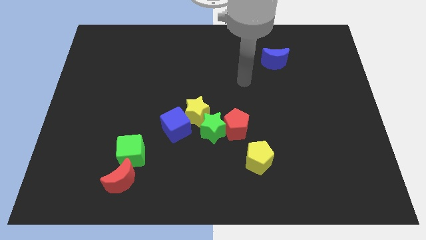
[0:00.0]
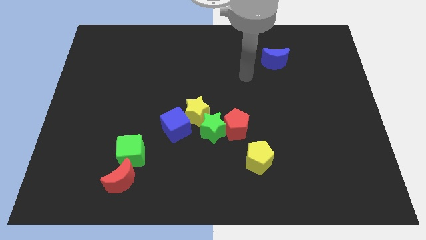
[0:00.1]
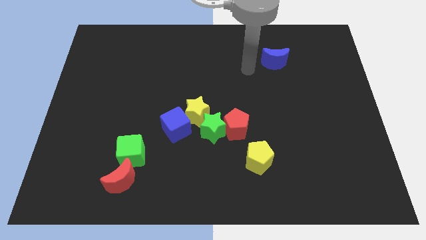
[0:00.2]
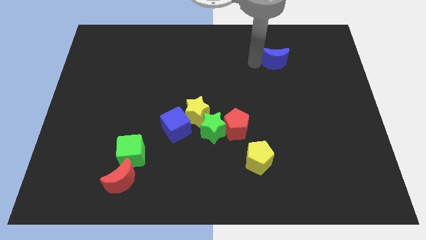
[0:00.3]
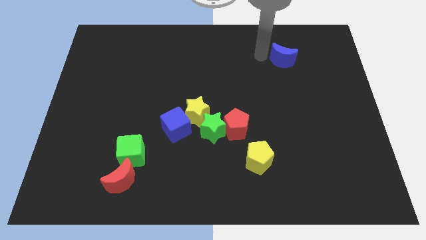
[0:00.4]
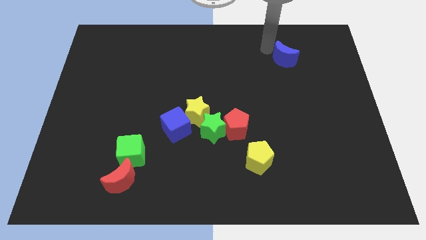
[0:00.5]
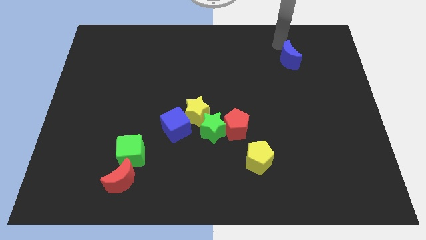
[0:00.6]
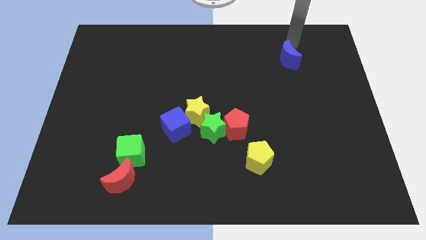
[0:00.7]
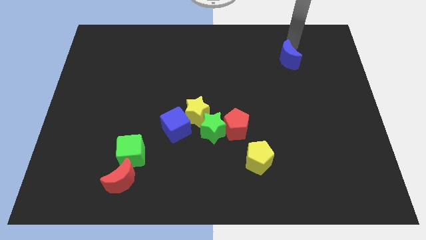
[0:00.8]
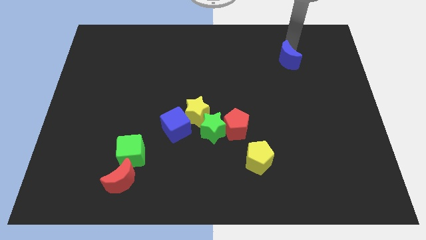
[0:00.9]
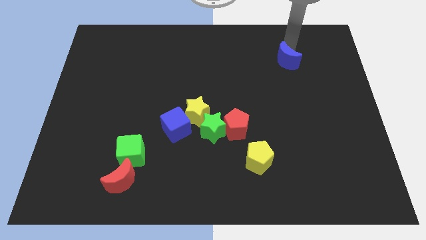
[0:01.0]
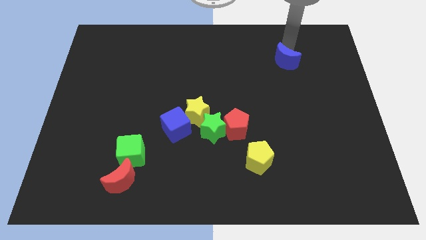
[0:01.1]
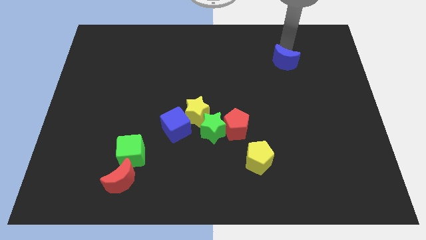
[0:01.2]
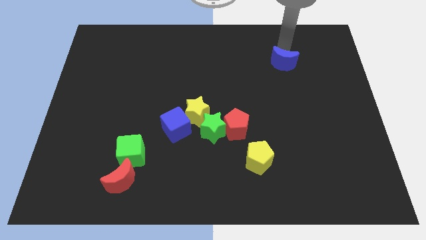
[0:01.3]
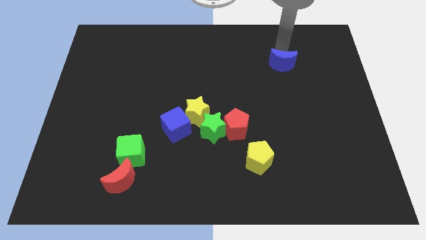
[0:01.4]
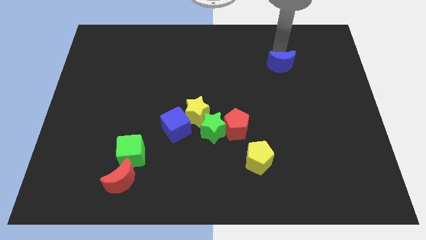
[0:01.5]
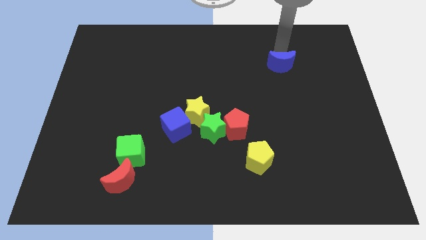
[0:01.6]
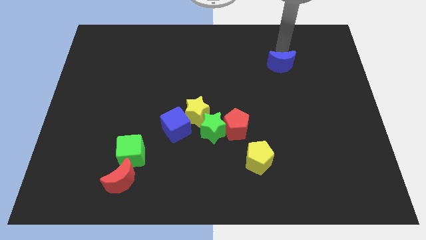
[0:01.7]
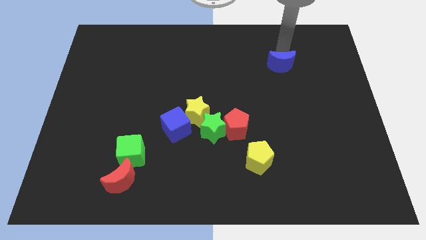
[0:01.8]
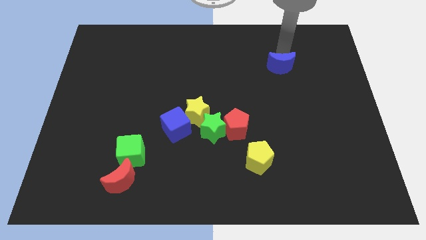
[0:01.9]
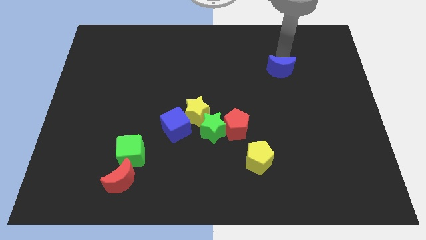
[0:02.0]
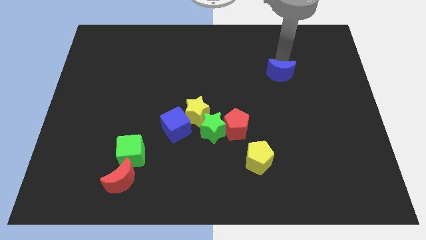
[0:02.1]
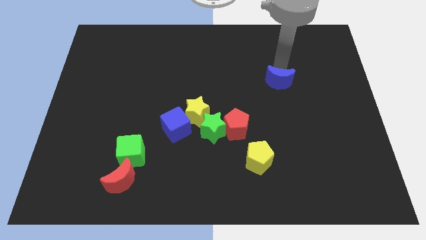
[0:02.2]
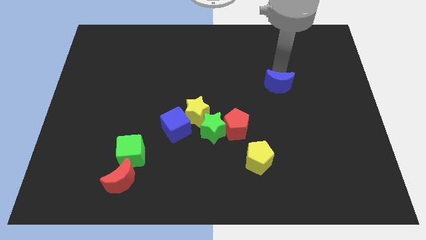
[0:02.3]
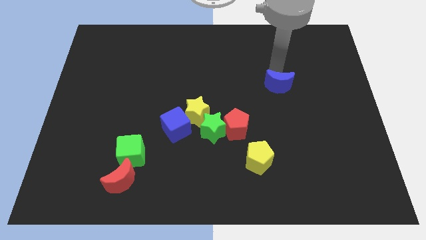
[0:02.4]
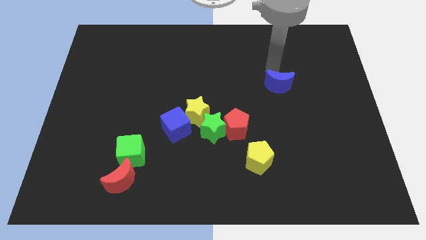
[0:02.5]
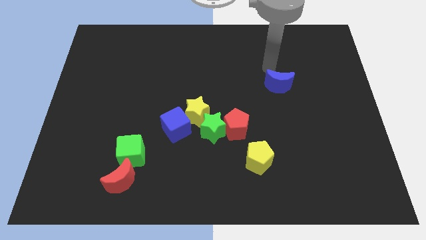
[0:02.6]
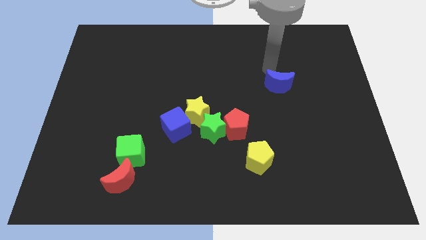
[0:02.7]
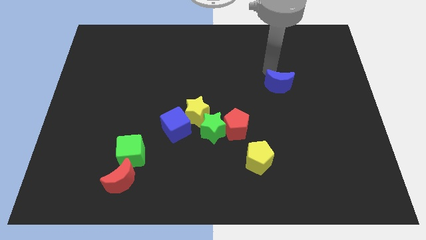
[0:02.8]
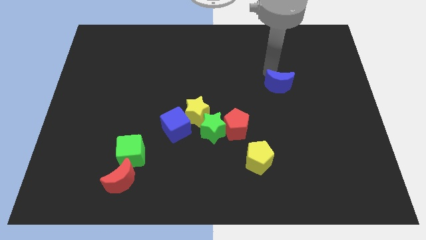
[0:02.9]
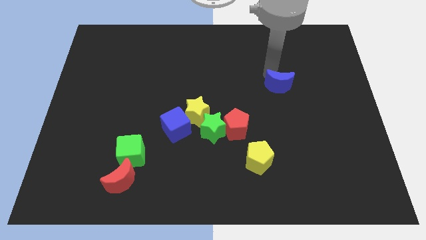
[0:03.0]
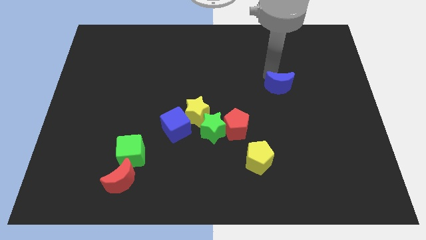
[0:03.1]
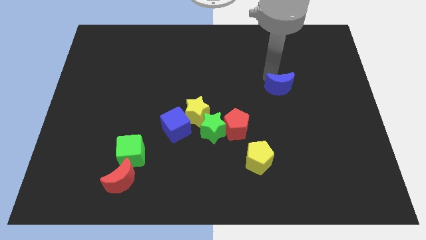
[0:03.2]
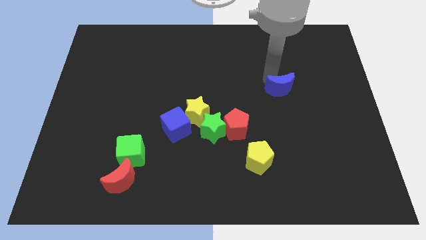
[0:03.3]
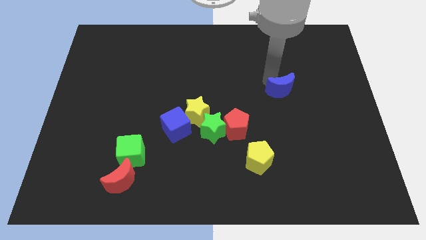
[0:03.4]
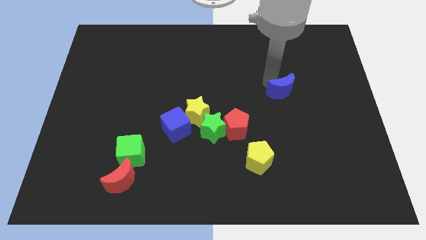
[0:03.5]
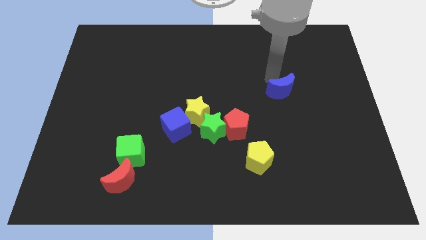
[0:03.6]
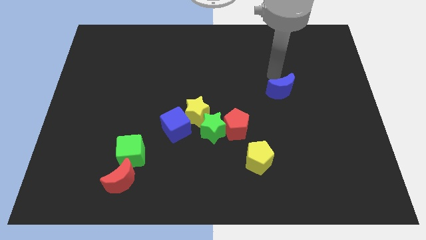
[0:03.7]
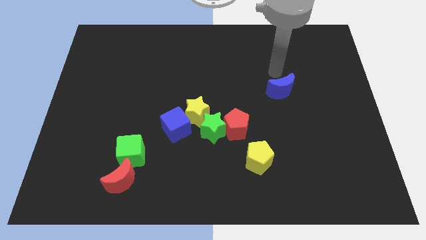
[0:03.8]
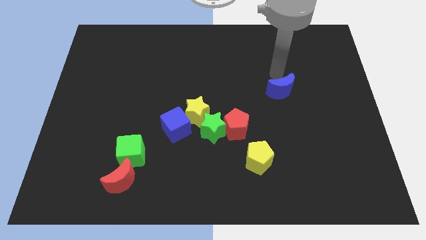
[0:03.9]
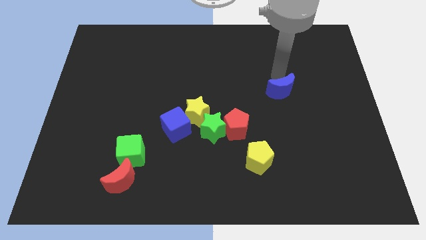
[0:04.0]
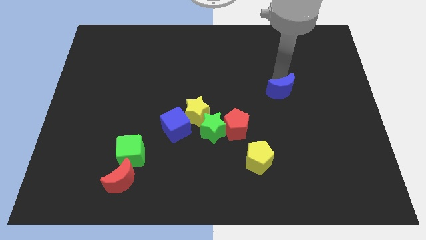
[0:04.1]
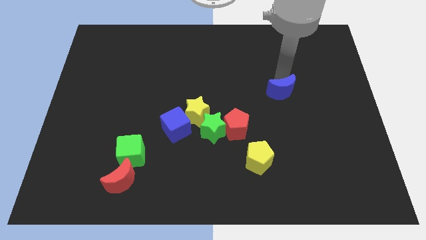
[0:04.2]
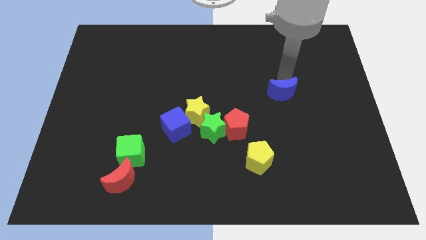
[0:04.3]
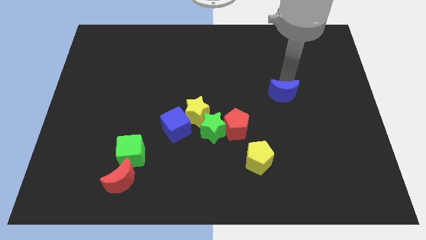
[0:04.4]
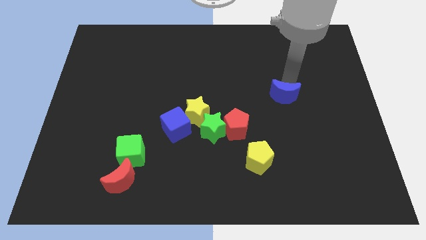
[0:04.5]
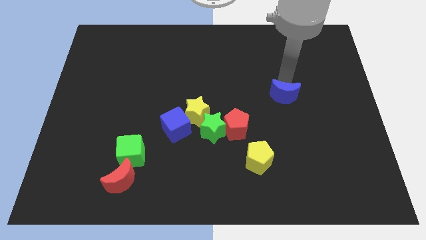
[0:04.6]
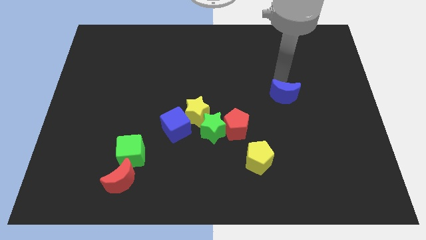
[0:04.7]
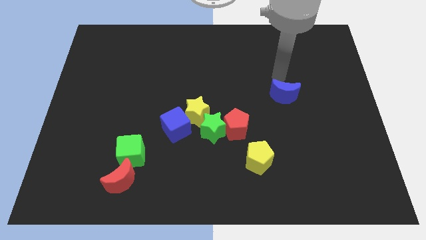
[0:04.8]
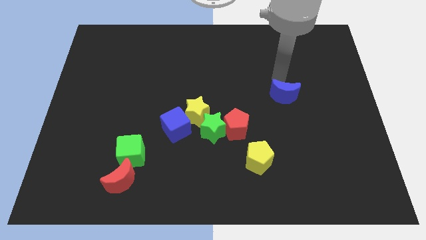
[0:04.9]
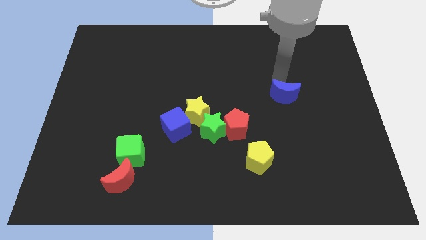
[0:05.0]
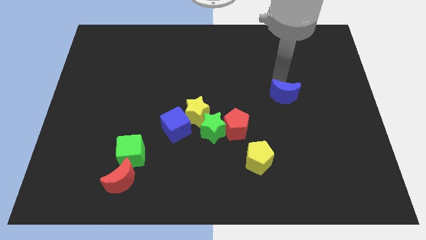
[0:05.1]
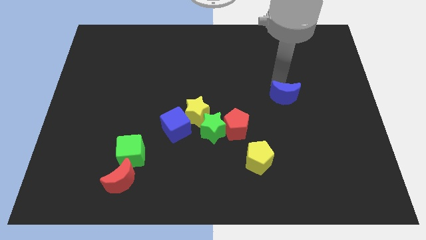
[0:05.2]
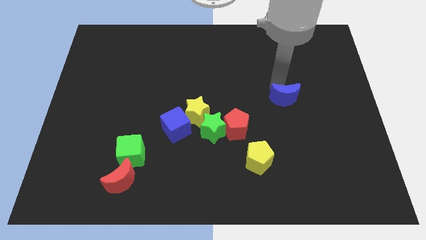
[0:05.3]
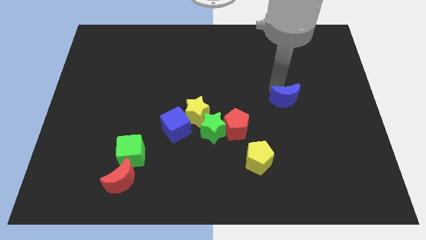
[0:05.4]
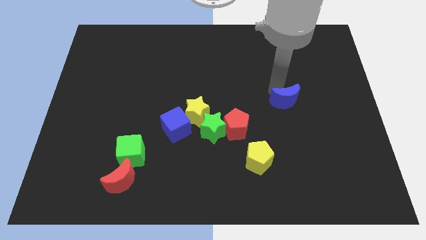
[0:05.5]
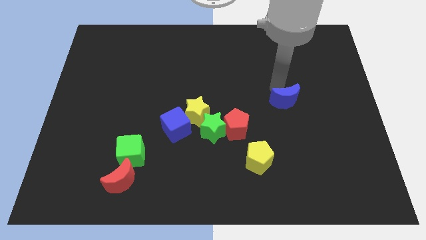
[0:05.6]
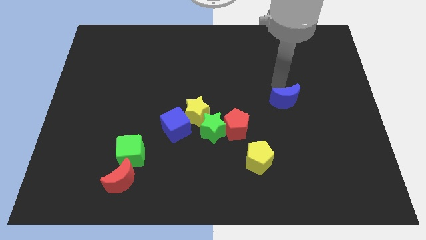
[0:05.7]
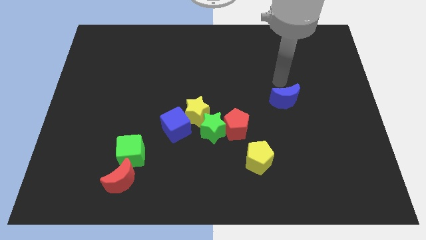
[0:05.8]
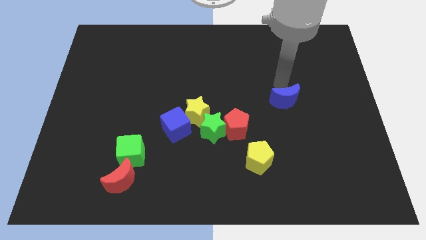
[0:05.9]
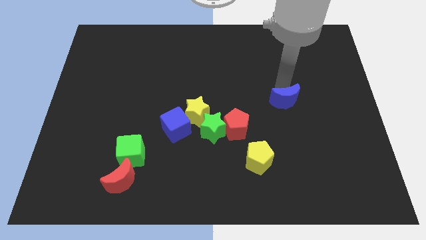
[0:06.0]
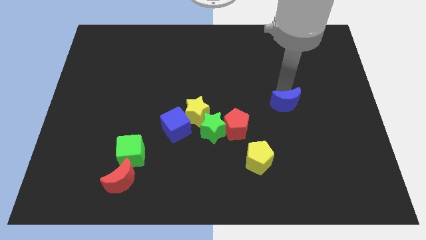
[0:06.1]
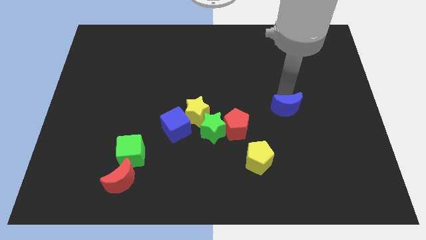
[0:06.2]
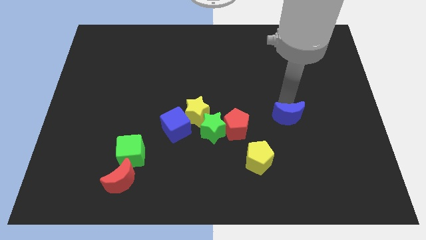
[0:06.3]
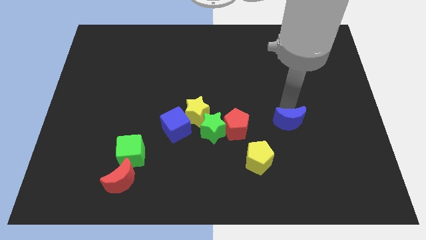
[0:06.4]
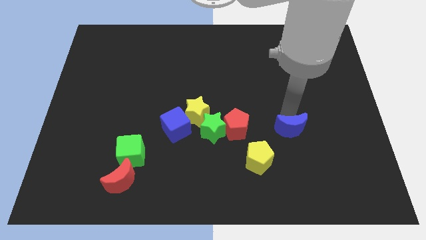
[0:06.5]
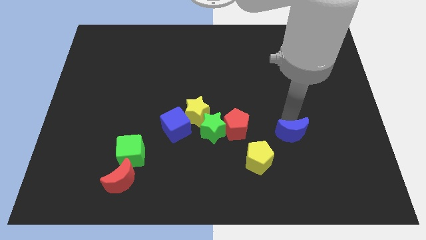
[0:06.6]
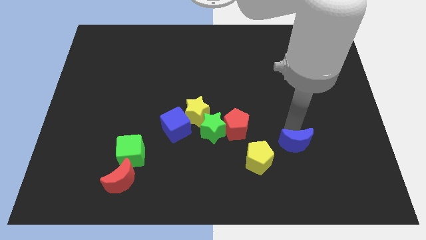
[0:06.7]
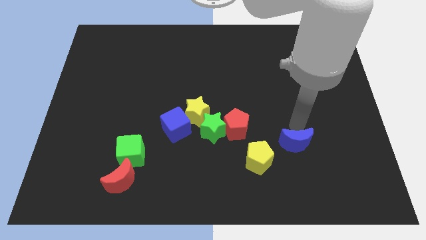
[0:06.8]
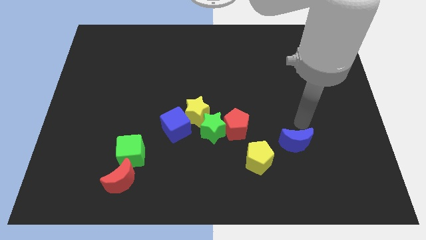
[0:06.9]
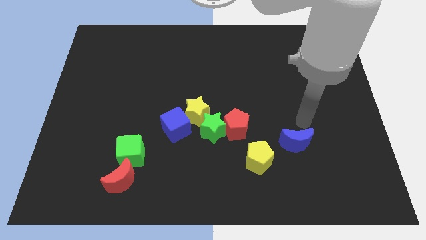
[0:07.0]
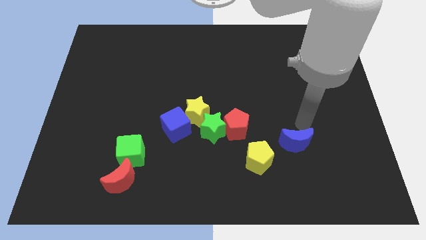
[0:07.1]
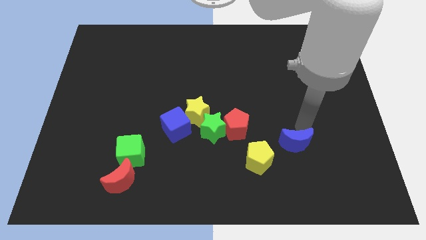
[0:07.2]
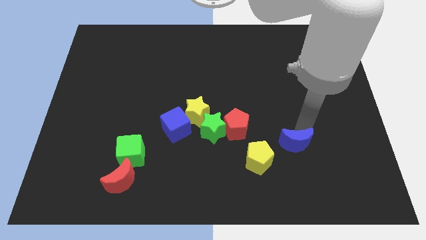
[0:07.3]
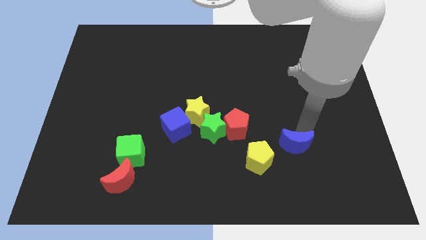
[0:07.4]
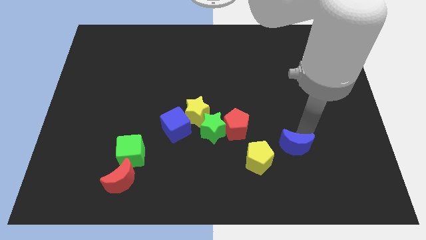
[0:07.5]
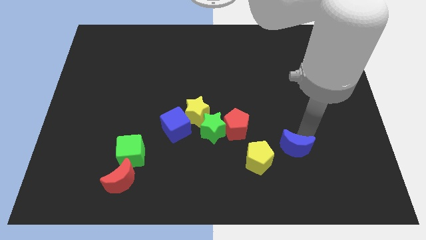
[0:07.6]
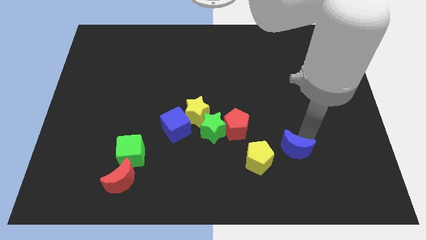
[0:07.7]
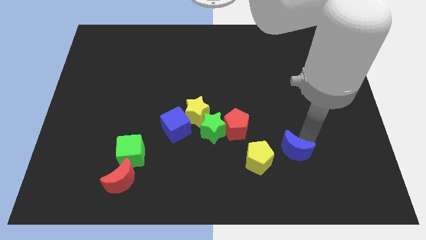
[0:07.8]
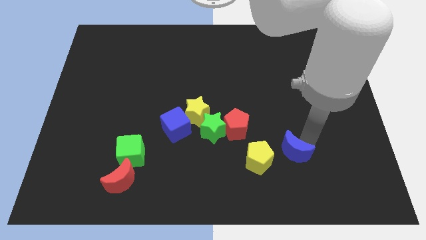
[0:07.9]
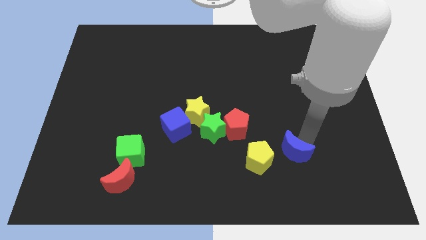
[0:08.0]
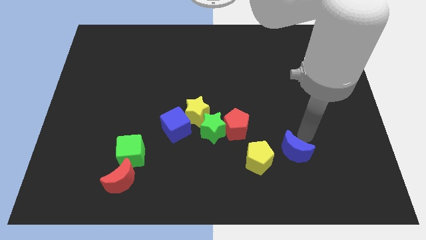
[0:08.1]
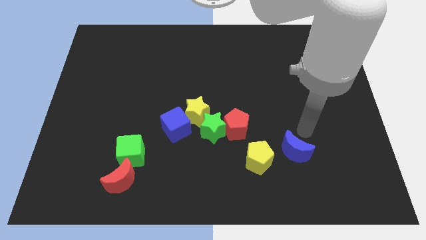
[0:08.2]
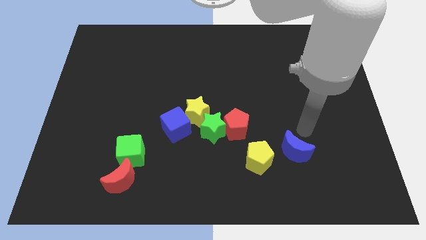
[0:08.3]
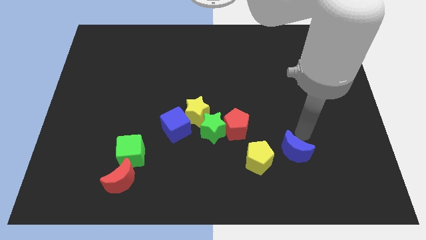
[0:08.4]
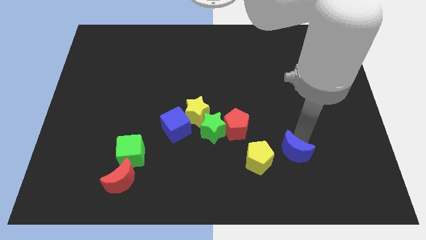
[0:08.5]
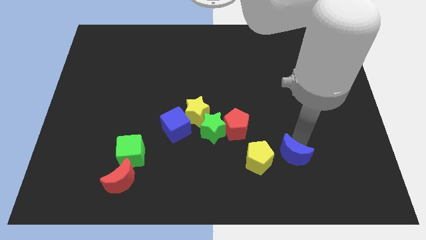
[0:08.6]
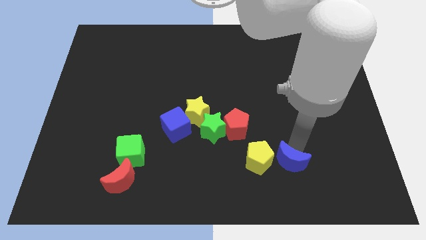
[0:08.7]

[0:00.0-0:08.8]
push the blue moon to the bottom right side of the yellow pentagon
